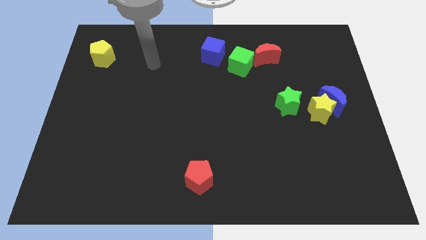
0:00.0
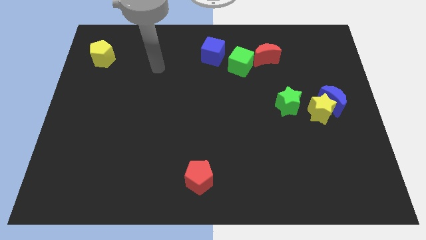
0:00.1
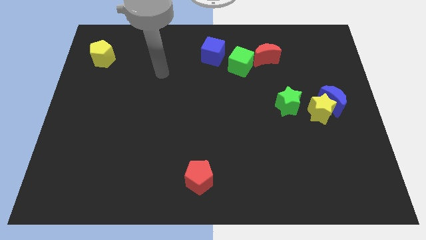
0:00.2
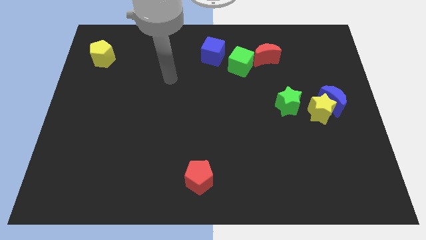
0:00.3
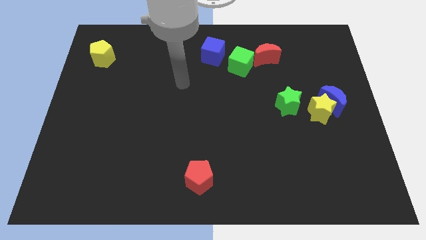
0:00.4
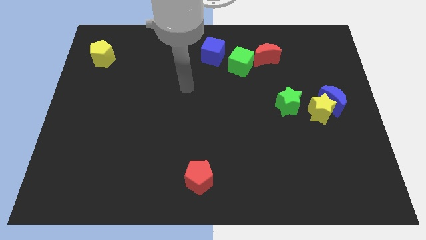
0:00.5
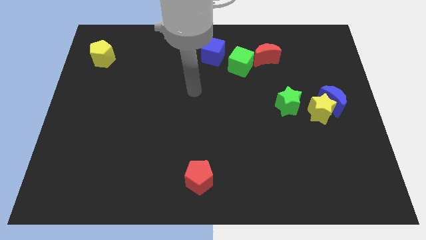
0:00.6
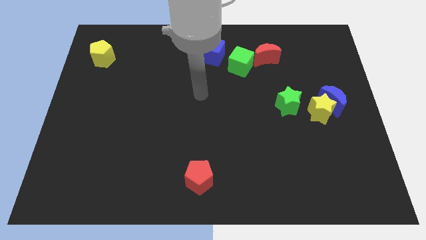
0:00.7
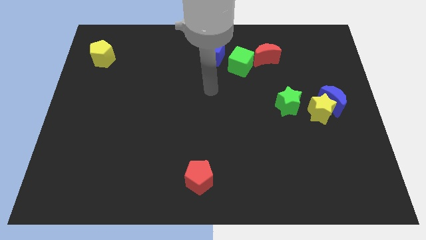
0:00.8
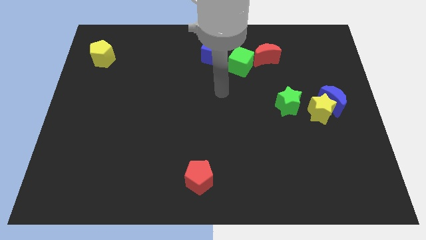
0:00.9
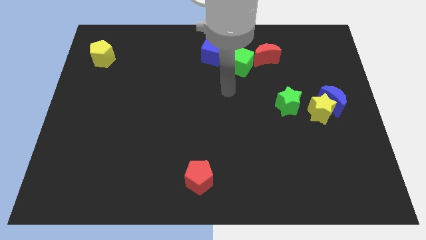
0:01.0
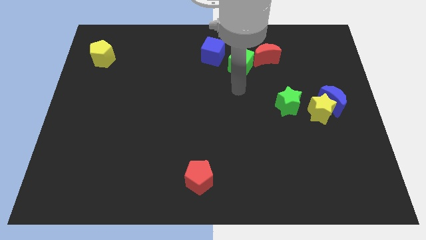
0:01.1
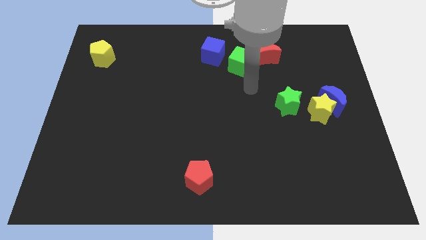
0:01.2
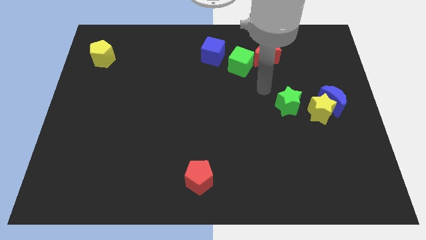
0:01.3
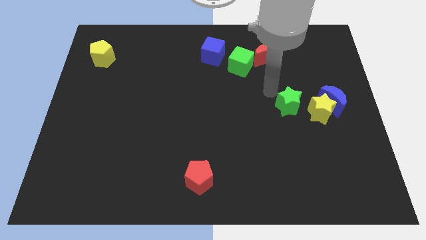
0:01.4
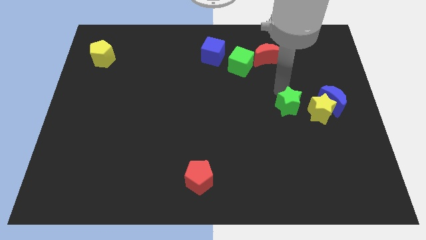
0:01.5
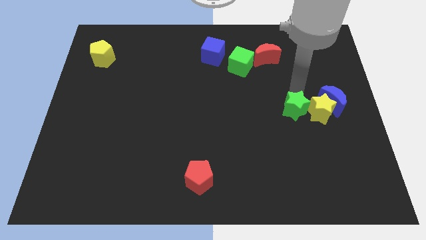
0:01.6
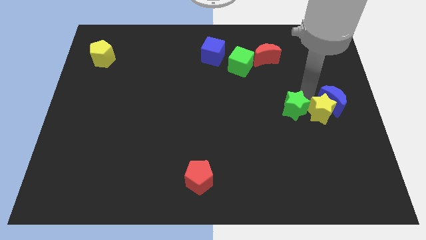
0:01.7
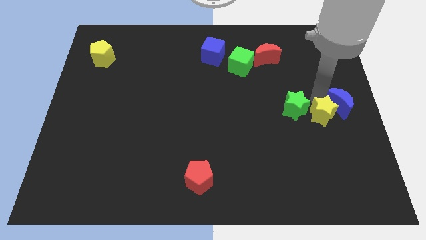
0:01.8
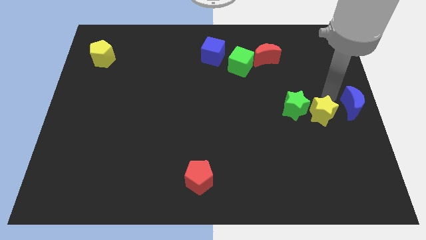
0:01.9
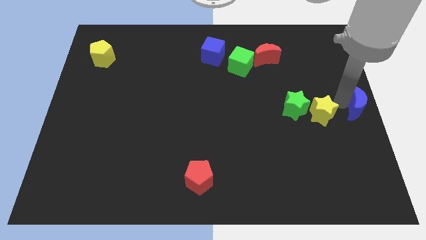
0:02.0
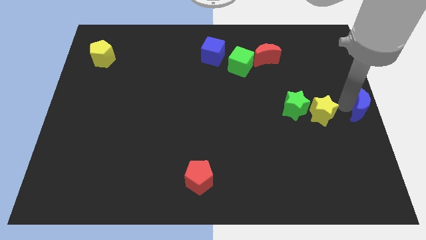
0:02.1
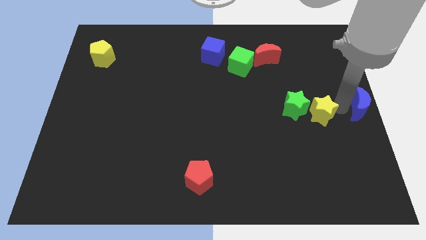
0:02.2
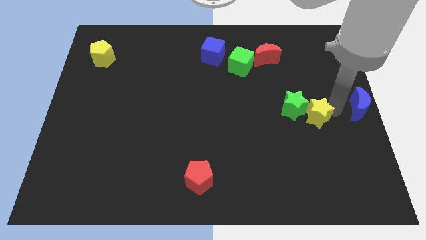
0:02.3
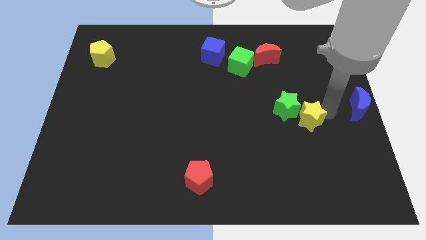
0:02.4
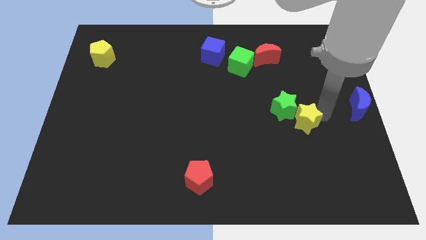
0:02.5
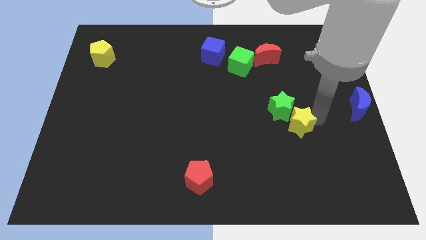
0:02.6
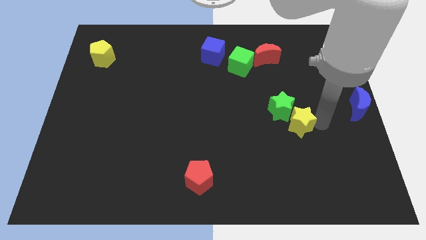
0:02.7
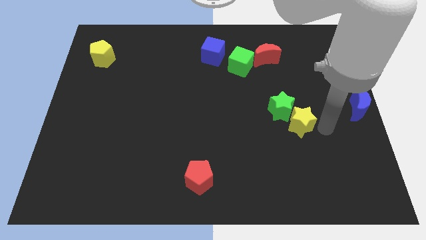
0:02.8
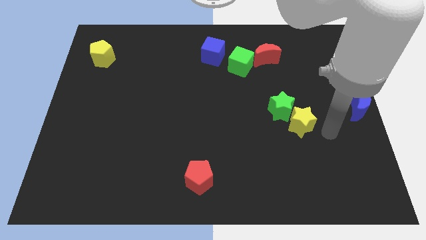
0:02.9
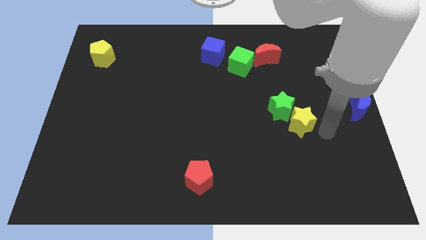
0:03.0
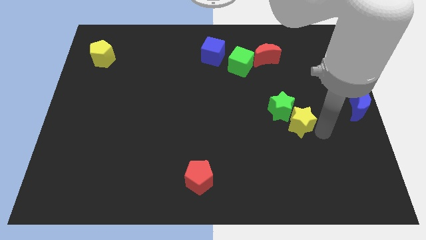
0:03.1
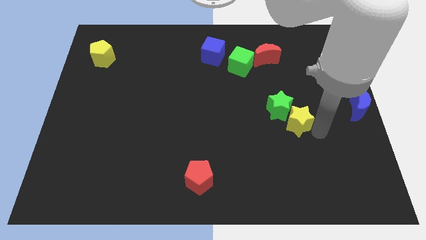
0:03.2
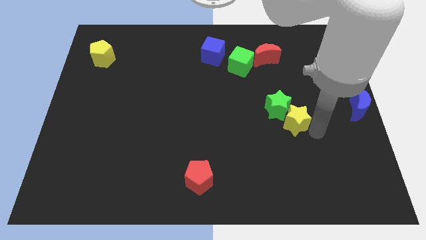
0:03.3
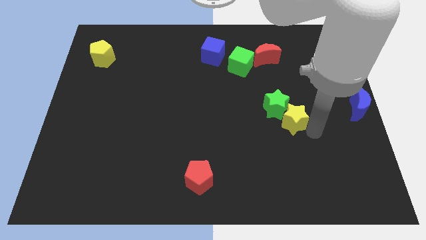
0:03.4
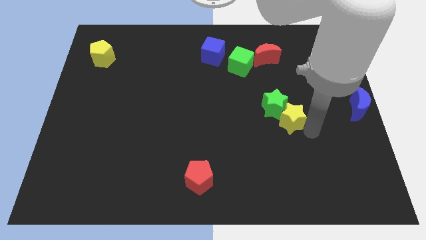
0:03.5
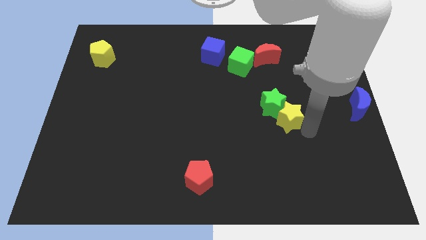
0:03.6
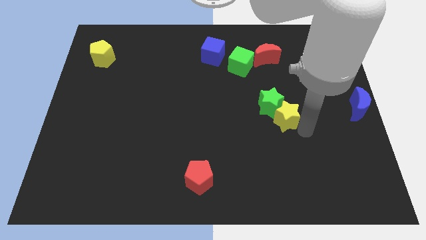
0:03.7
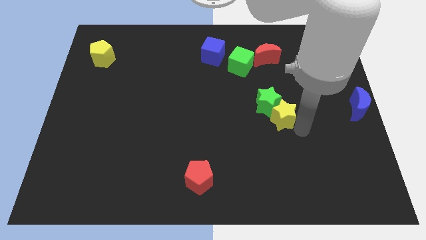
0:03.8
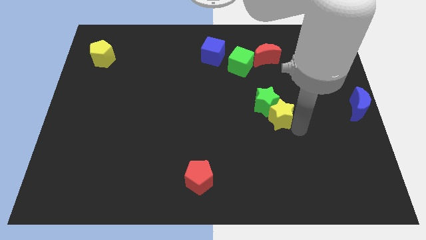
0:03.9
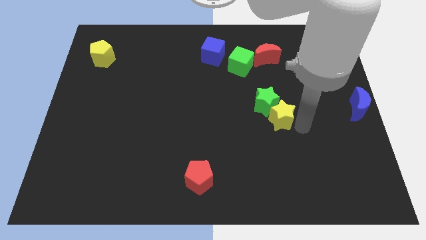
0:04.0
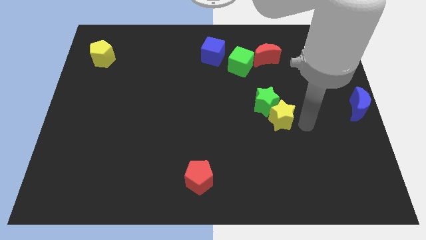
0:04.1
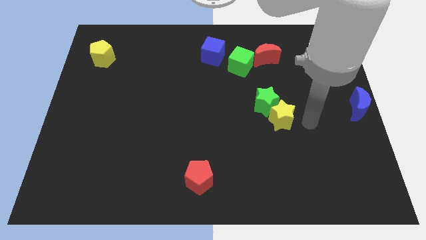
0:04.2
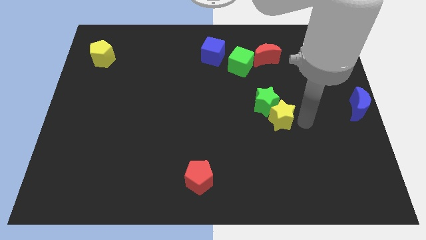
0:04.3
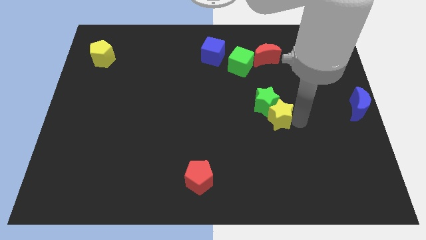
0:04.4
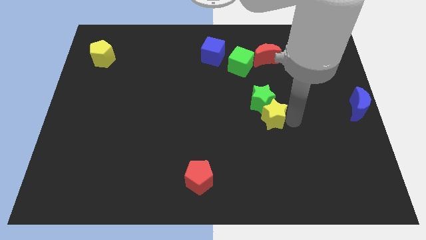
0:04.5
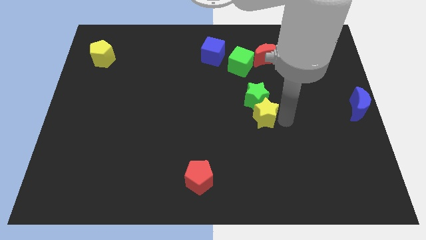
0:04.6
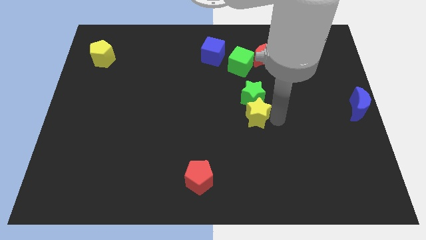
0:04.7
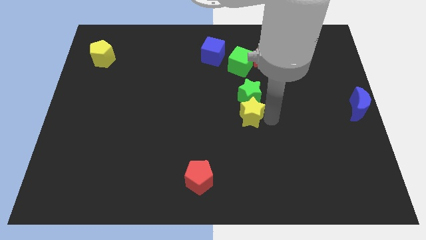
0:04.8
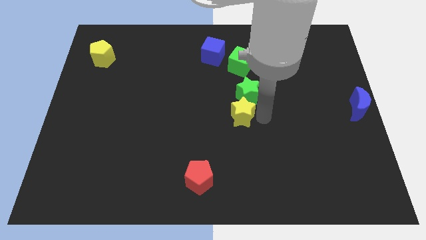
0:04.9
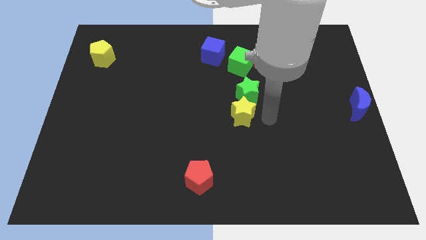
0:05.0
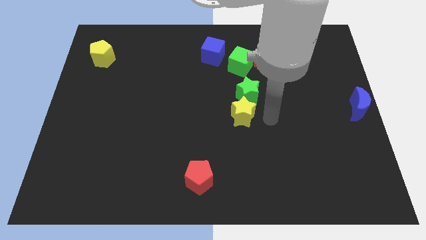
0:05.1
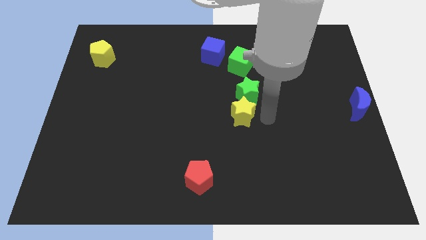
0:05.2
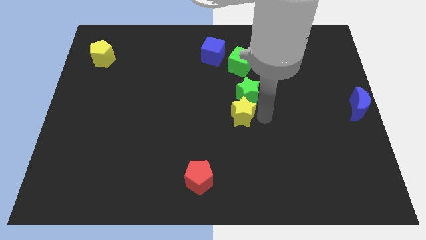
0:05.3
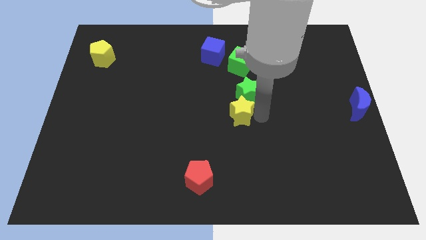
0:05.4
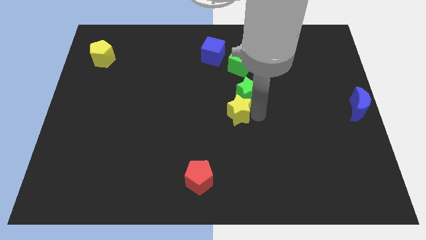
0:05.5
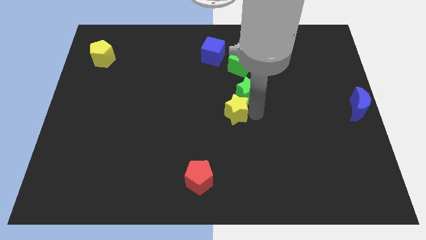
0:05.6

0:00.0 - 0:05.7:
move the yellow star left

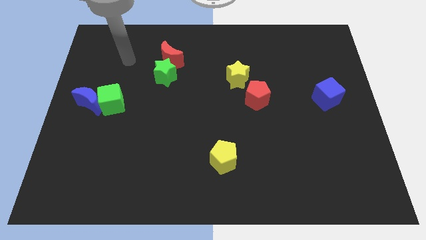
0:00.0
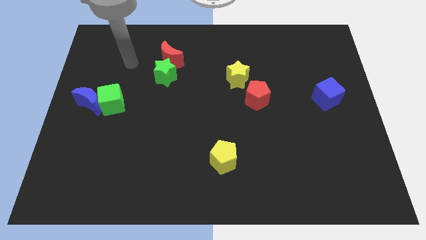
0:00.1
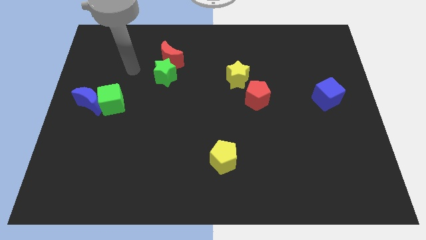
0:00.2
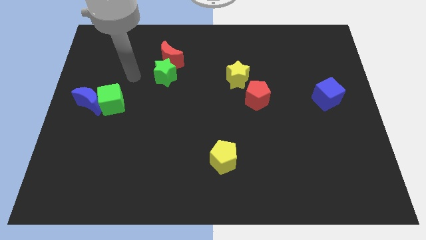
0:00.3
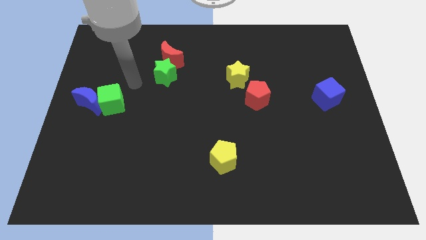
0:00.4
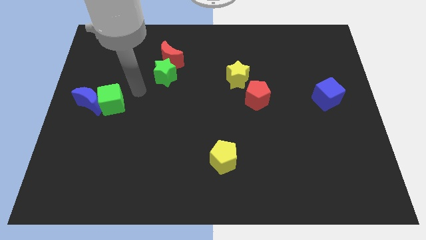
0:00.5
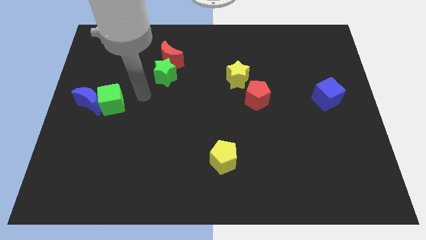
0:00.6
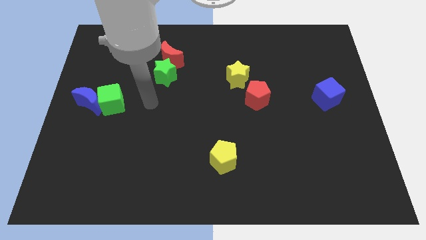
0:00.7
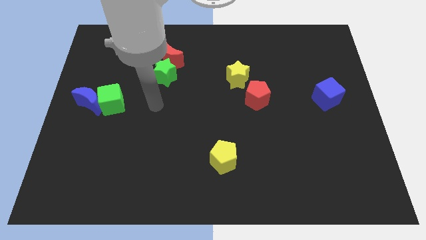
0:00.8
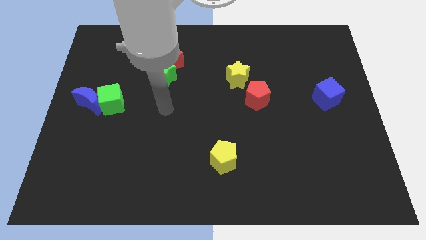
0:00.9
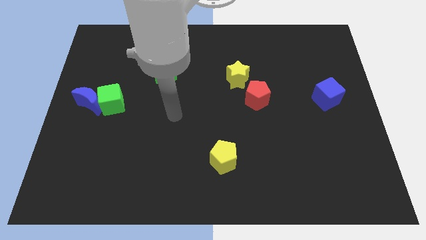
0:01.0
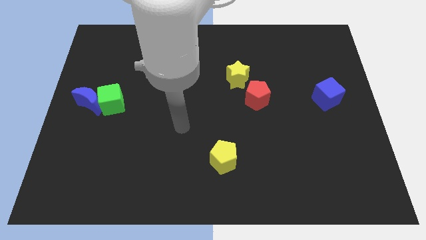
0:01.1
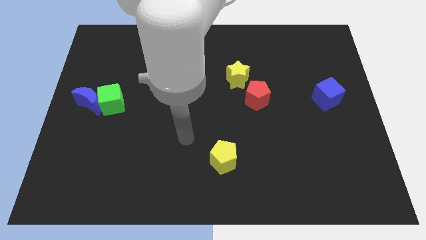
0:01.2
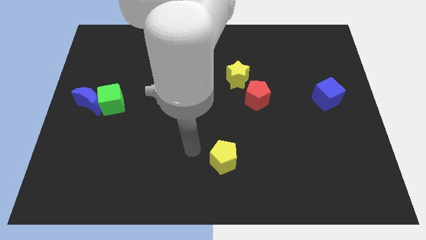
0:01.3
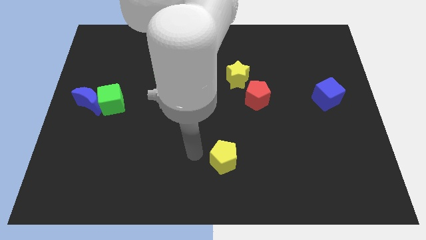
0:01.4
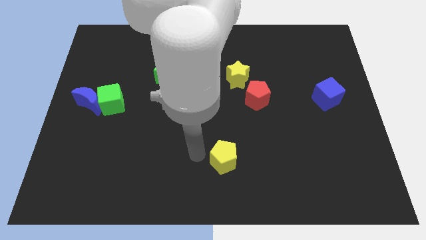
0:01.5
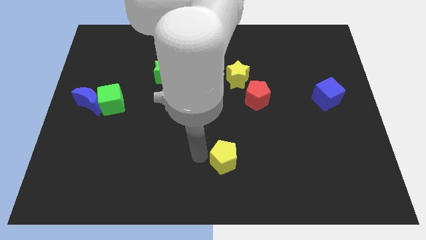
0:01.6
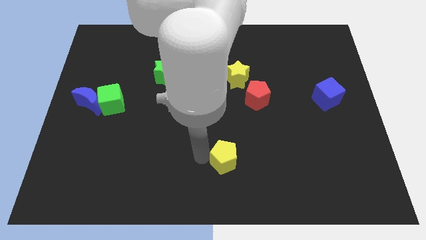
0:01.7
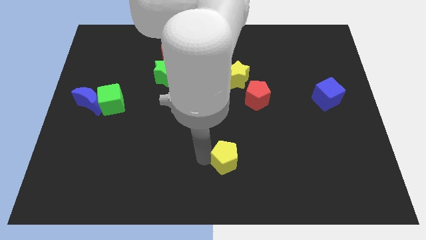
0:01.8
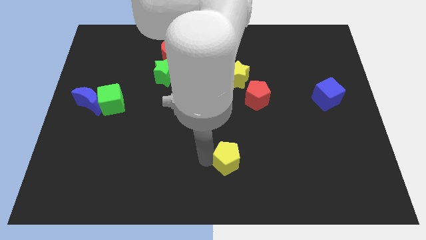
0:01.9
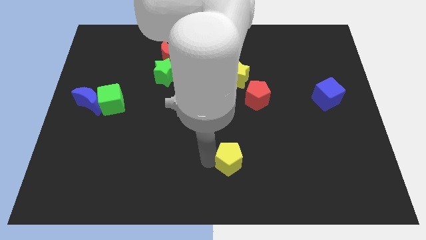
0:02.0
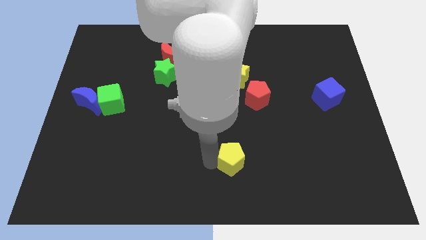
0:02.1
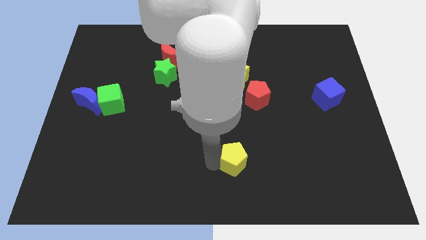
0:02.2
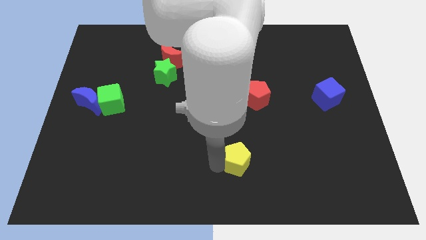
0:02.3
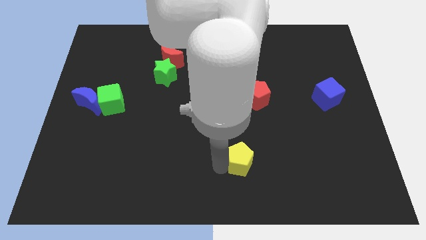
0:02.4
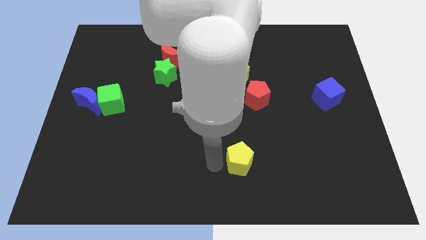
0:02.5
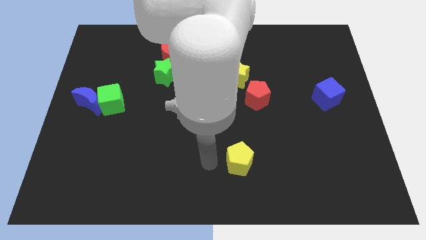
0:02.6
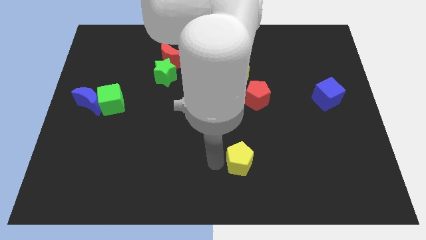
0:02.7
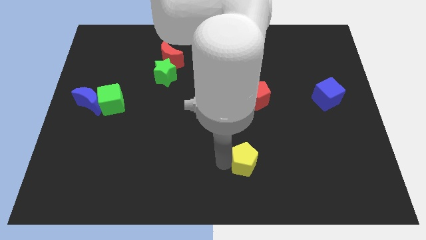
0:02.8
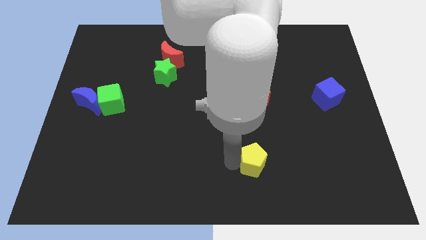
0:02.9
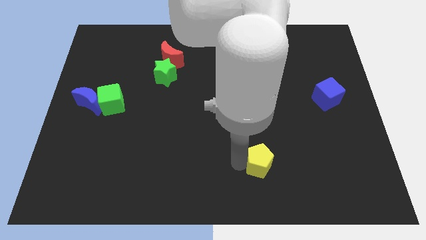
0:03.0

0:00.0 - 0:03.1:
slightly push the yellow pentagon to the right
